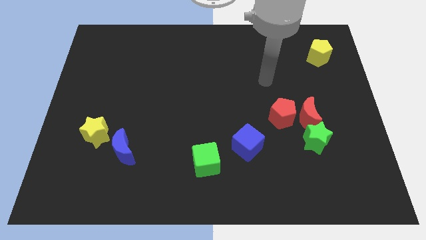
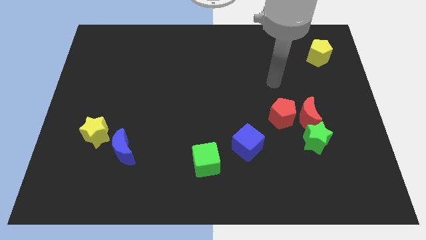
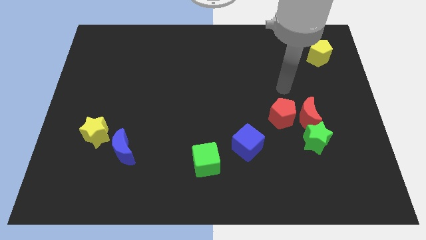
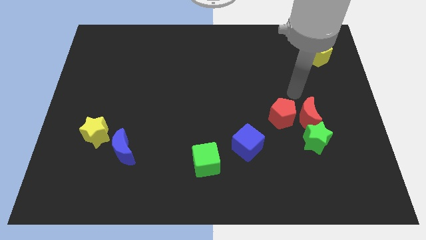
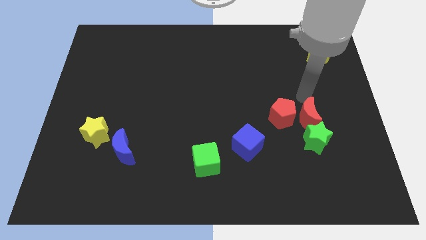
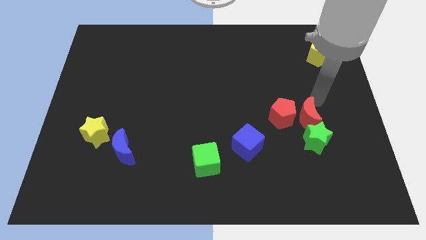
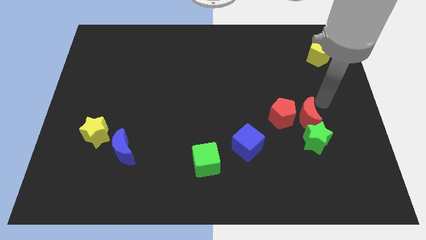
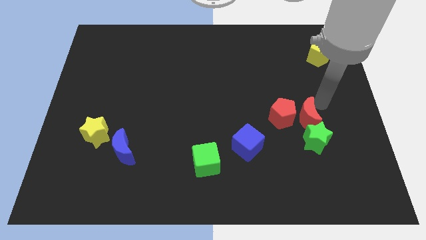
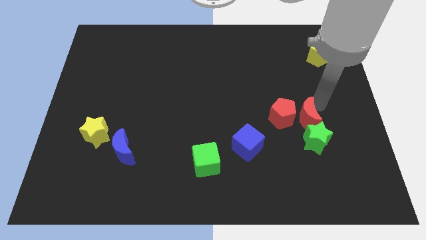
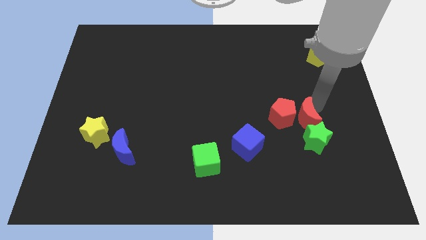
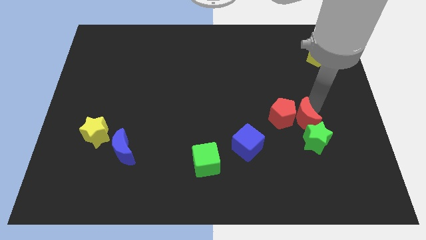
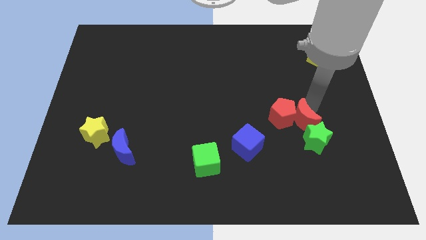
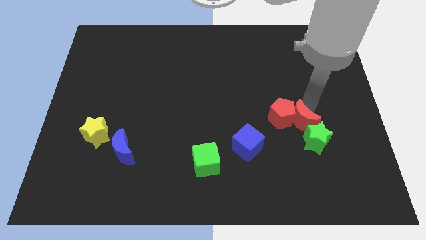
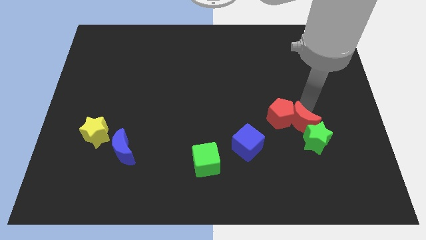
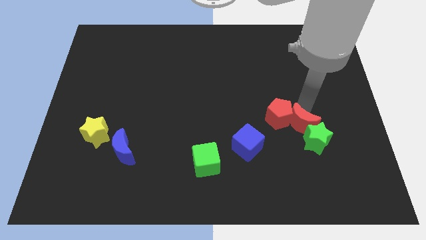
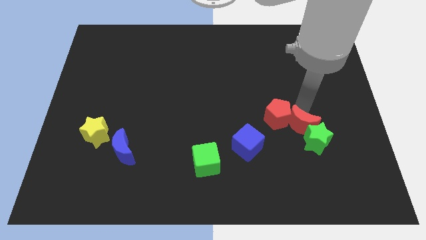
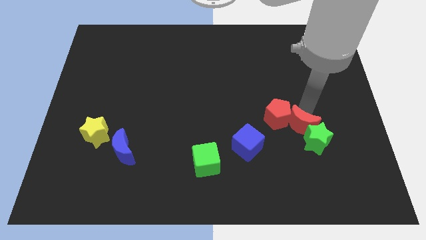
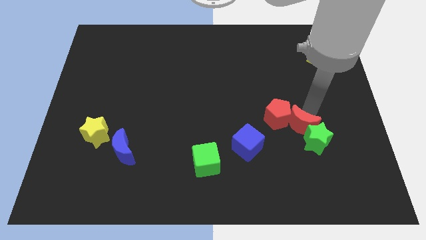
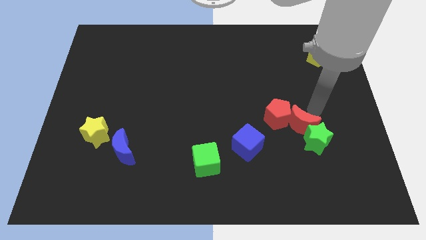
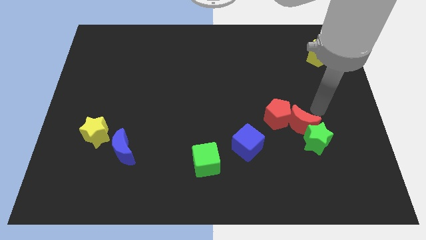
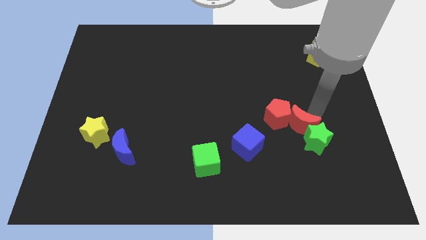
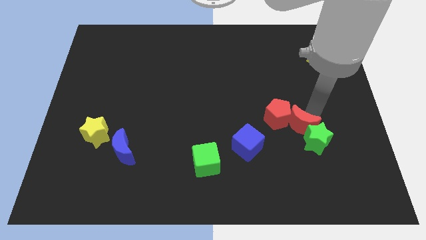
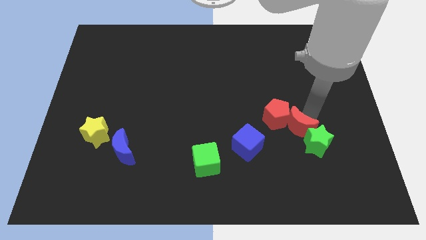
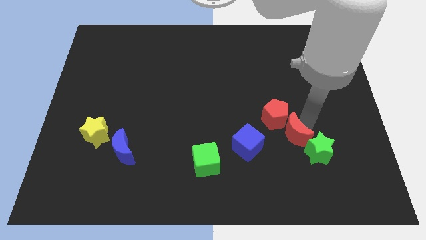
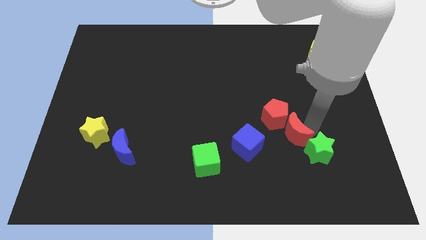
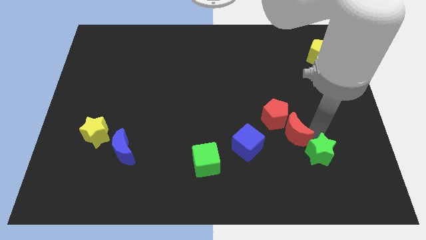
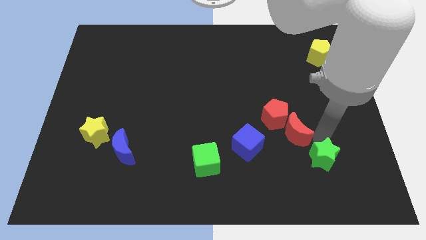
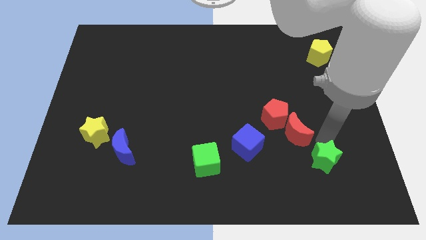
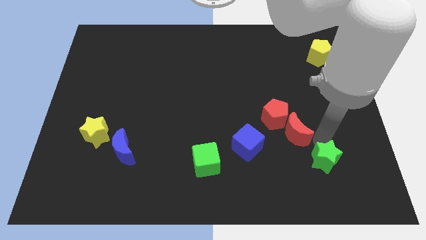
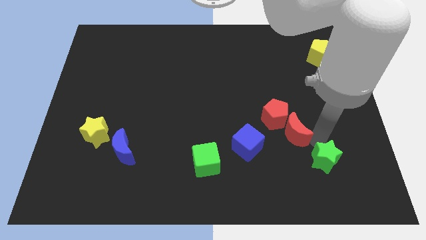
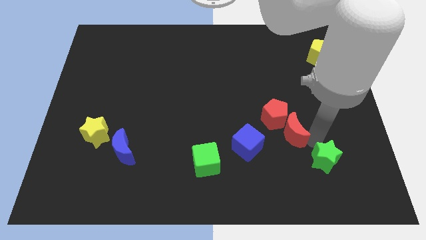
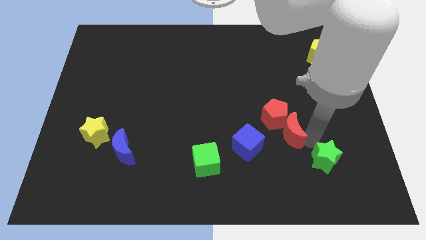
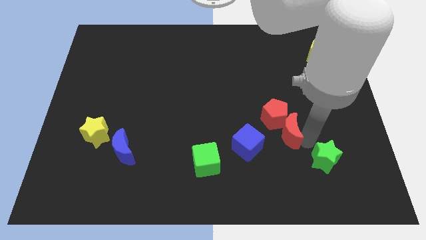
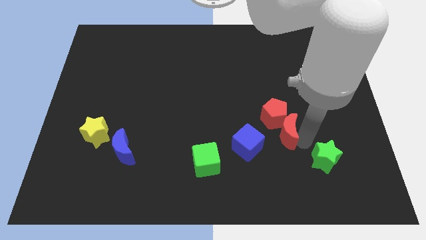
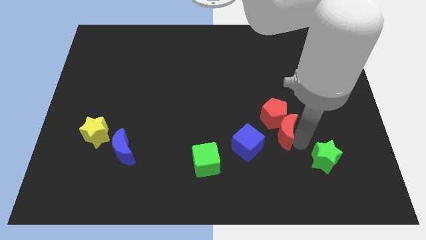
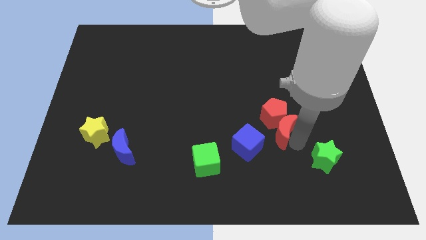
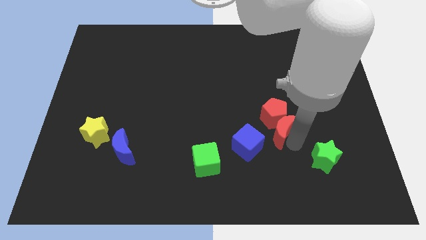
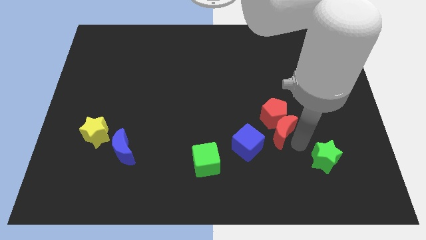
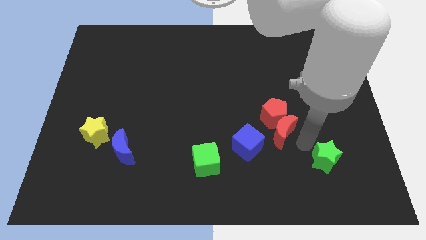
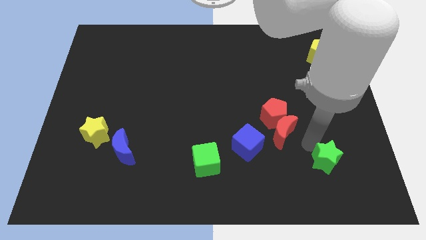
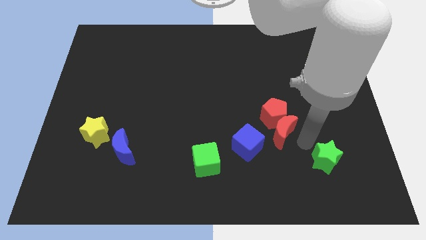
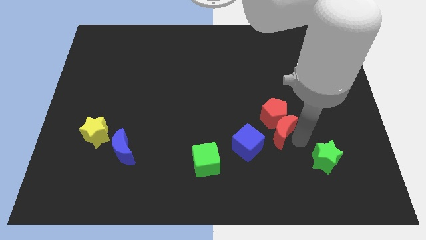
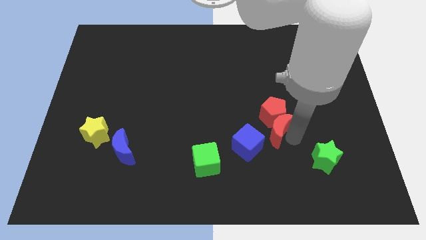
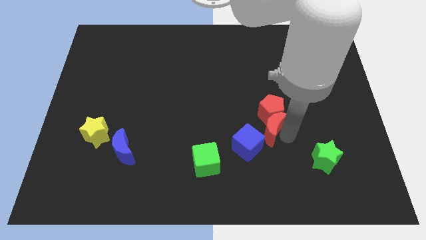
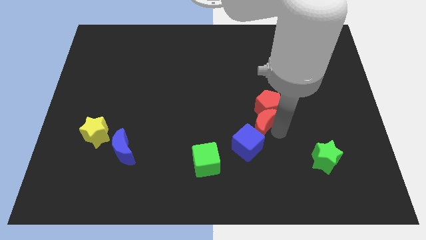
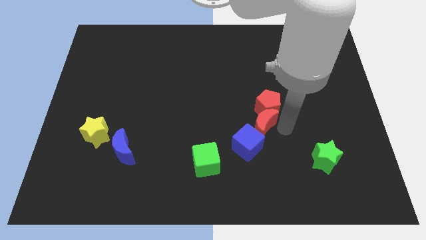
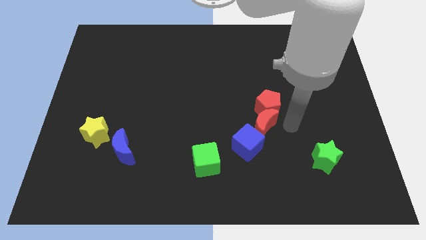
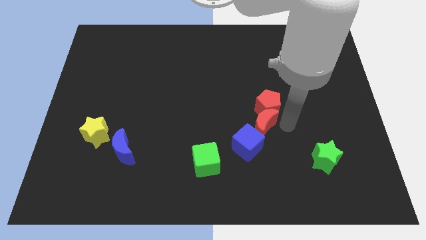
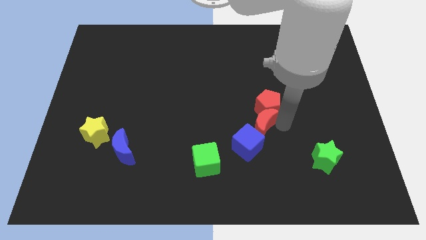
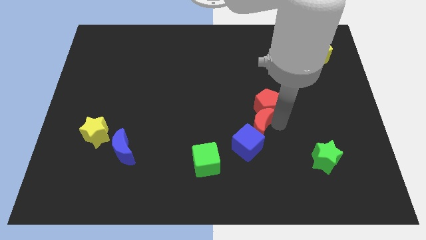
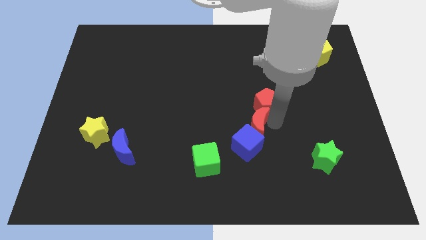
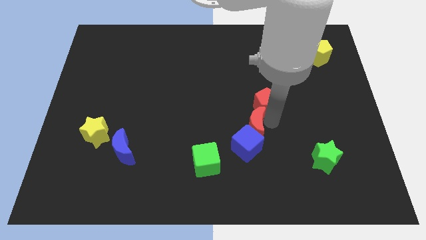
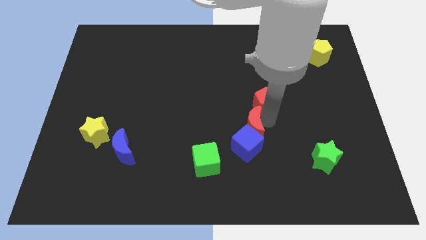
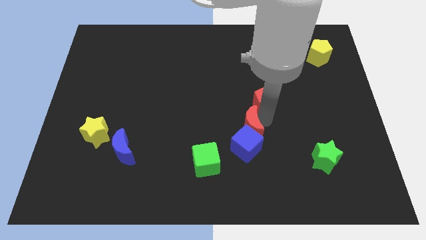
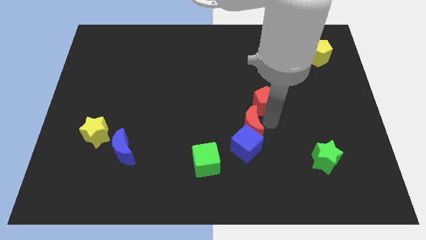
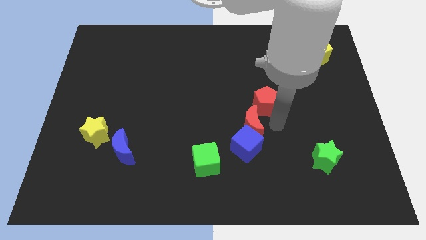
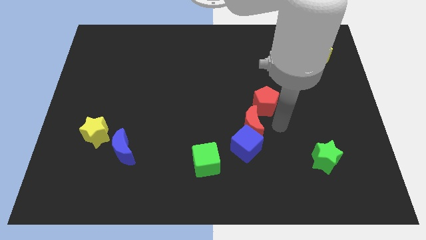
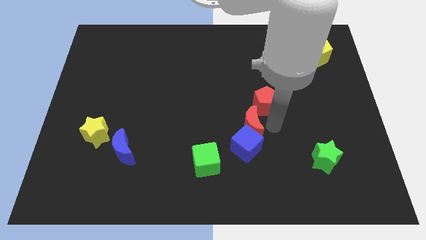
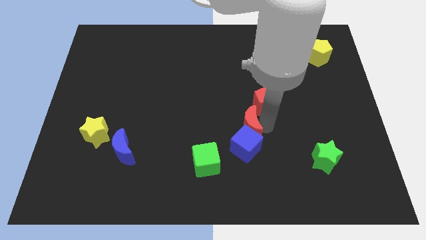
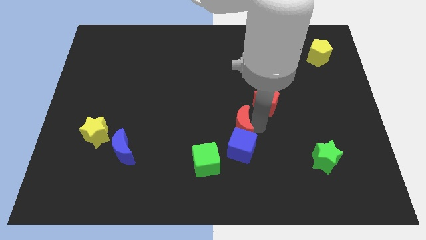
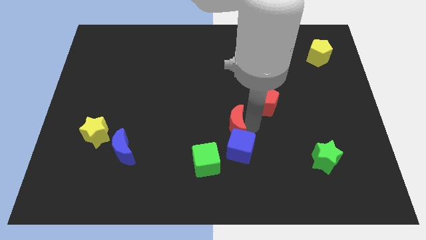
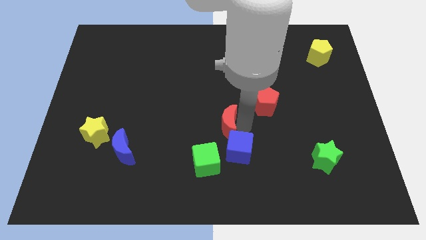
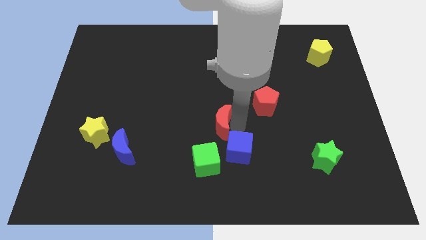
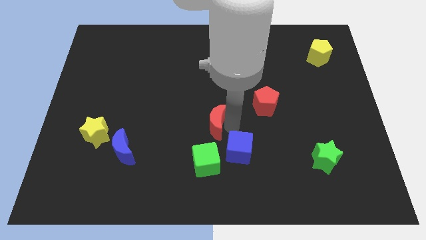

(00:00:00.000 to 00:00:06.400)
move the red moon to the left

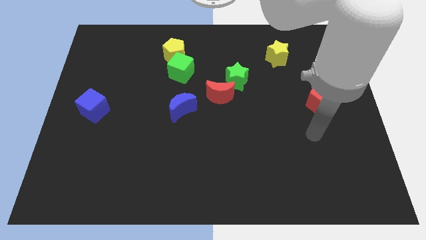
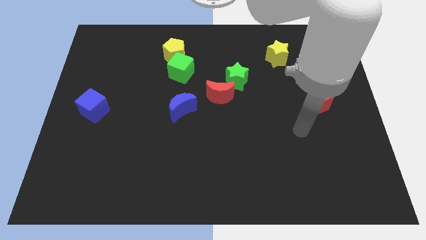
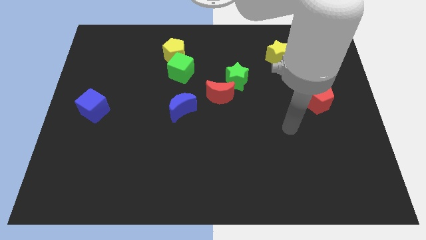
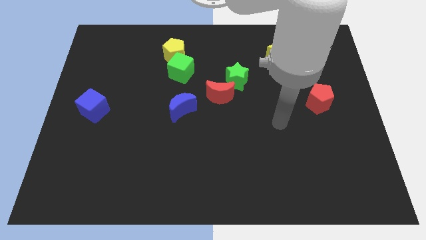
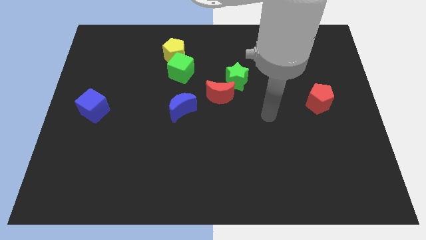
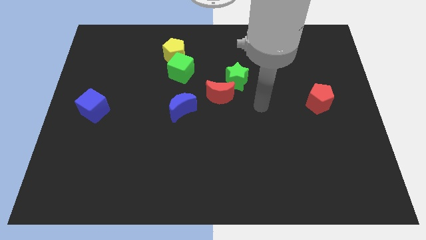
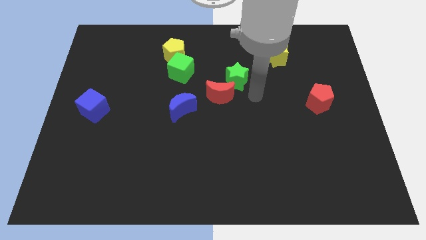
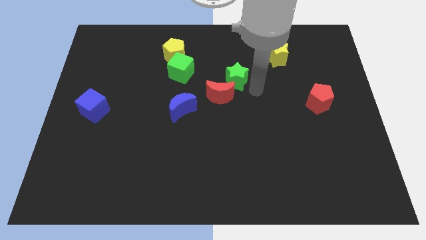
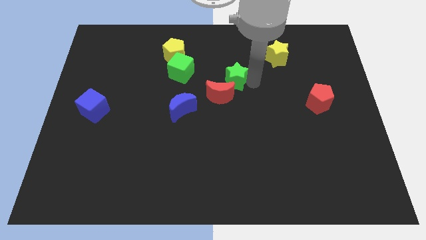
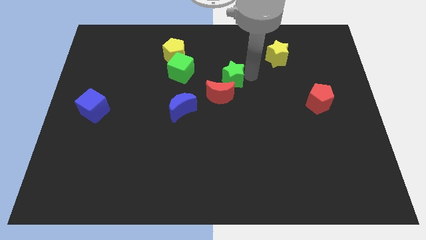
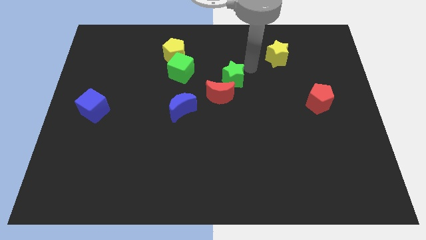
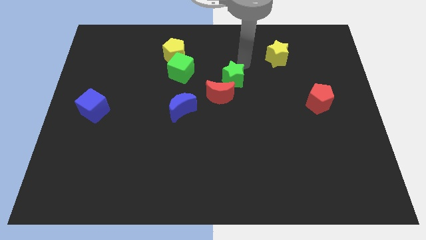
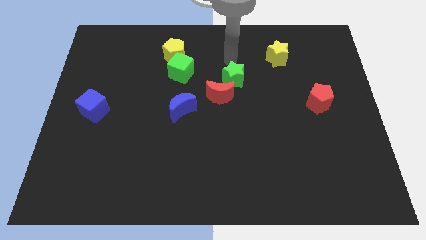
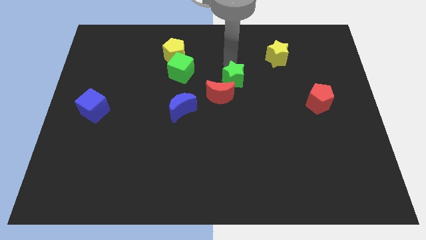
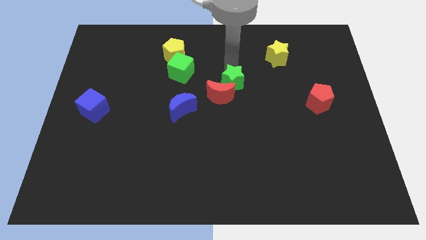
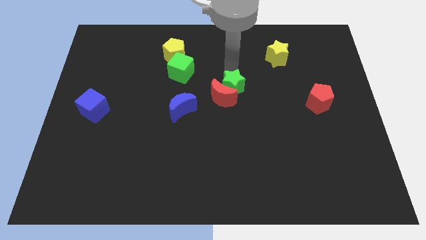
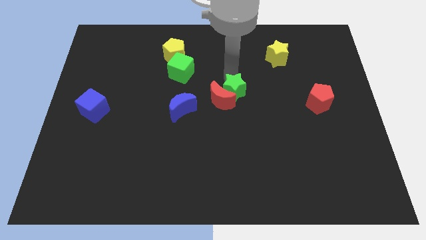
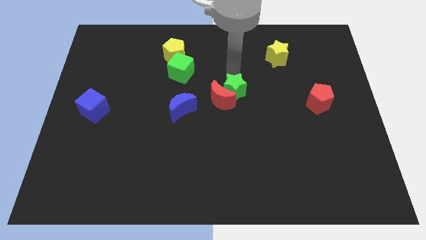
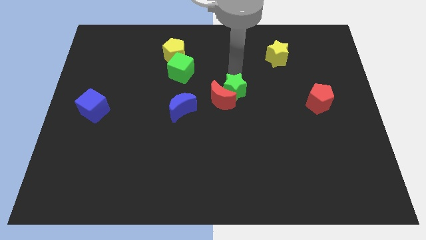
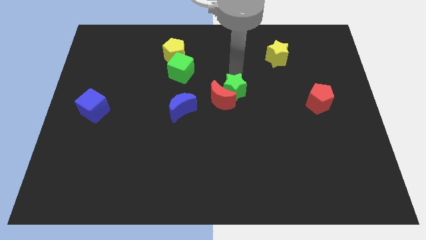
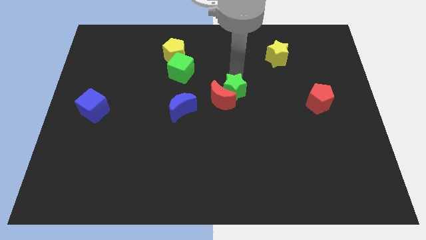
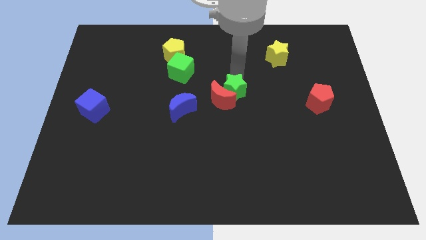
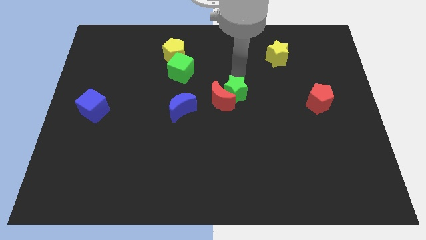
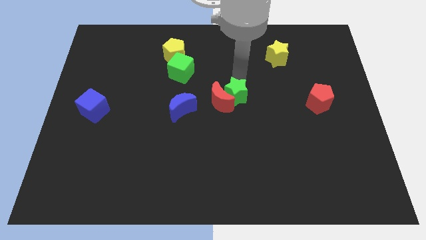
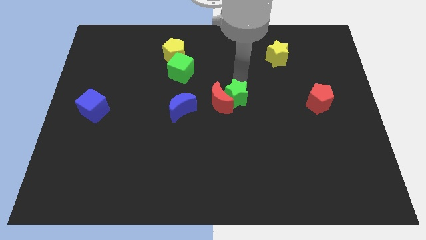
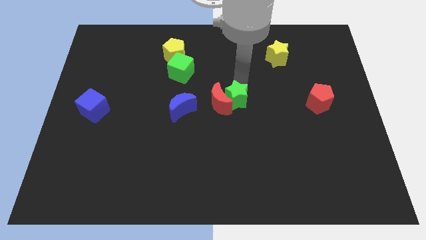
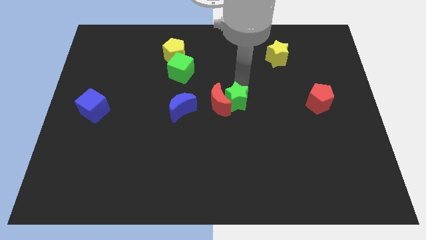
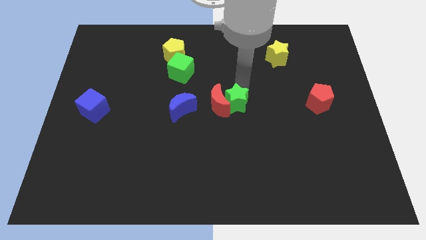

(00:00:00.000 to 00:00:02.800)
slightly push the green star downwards
